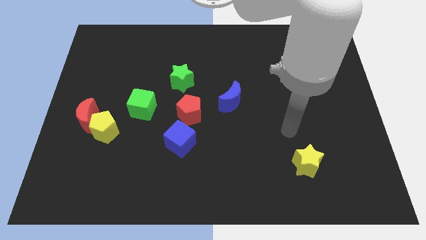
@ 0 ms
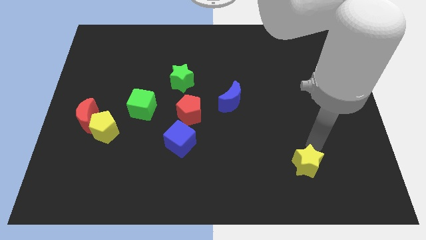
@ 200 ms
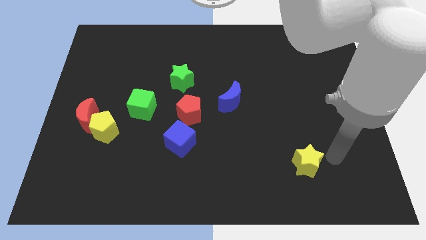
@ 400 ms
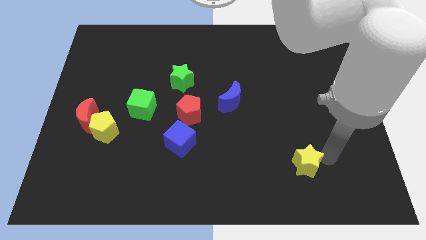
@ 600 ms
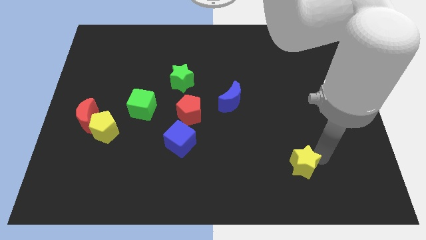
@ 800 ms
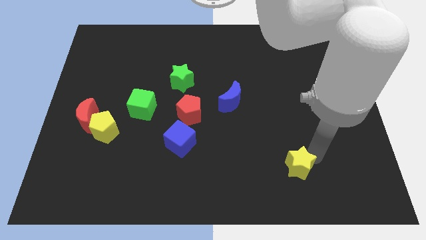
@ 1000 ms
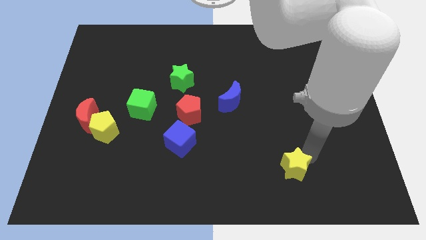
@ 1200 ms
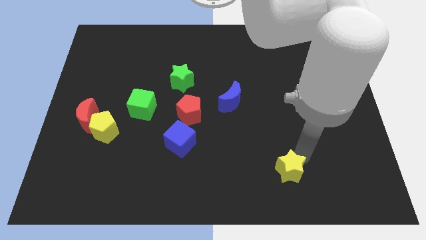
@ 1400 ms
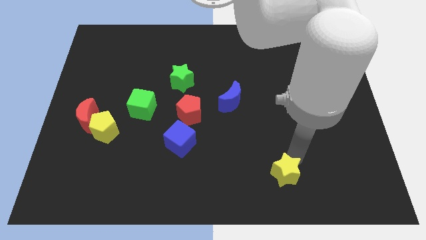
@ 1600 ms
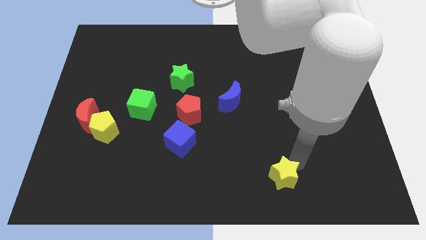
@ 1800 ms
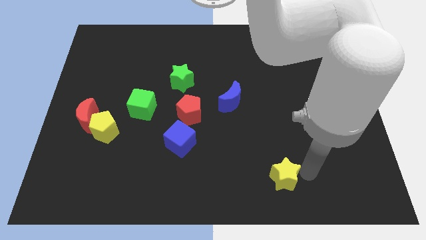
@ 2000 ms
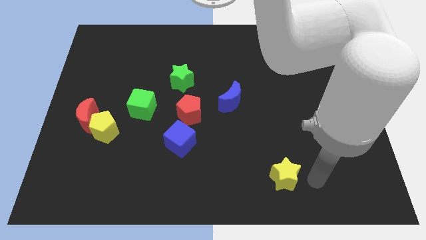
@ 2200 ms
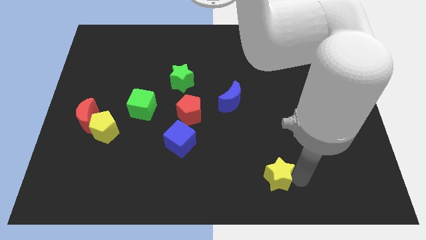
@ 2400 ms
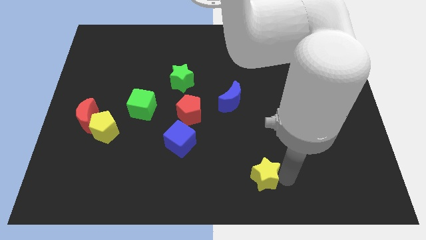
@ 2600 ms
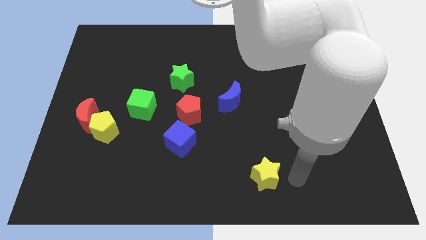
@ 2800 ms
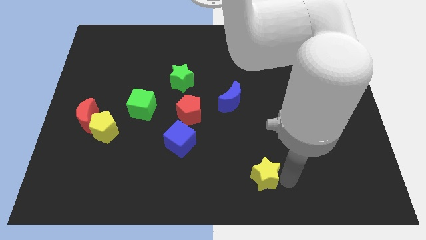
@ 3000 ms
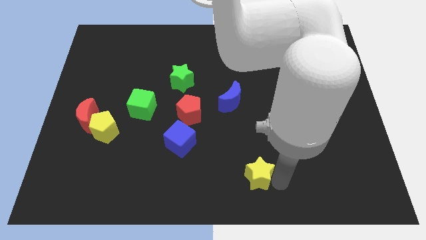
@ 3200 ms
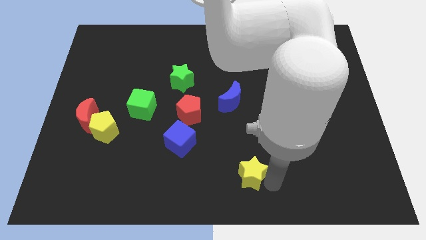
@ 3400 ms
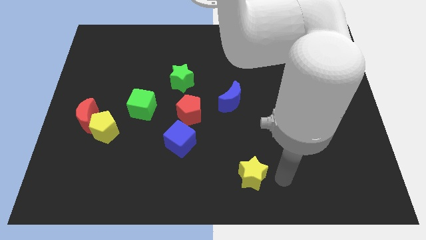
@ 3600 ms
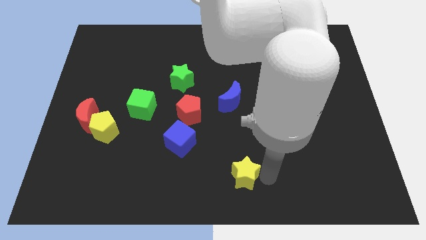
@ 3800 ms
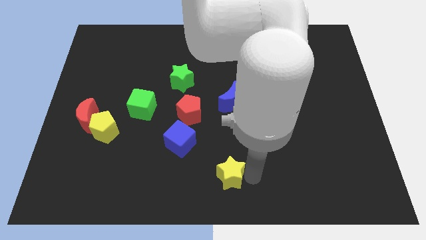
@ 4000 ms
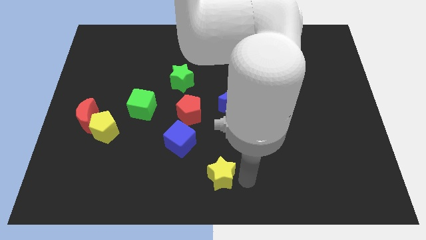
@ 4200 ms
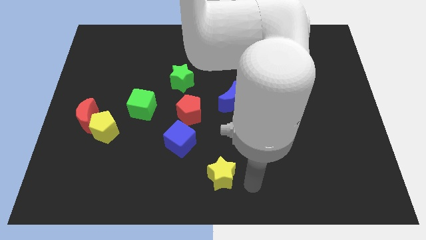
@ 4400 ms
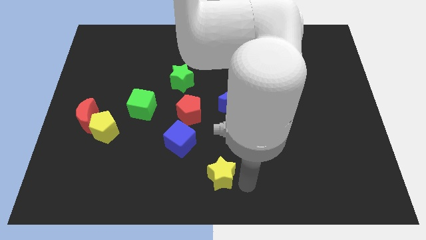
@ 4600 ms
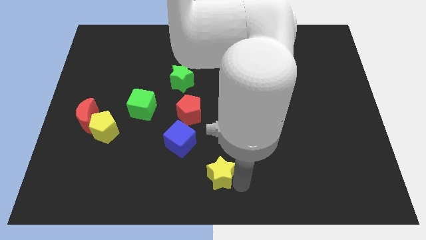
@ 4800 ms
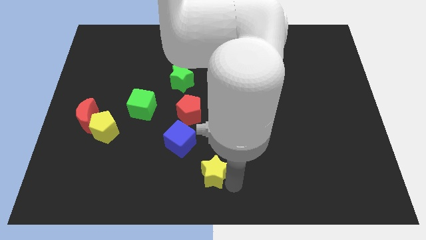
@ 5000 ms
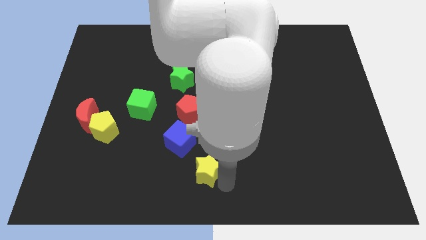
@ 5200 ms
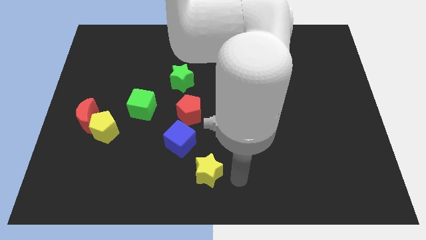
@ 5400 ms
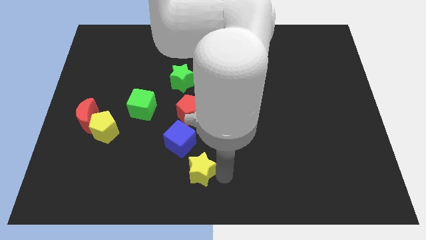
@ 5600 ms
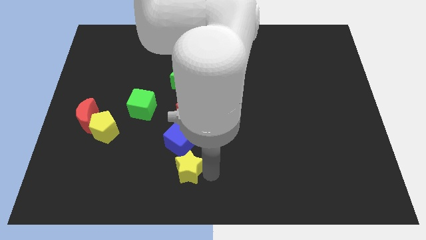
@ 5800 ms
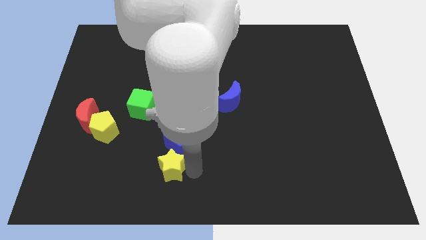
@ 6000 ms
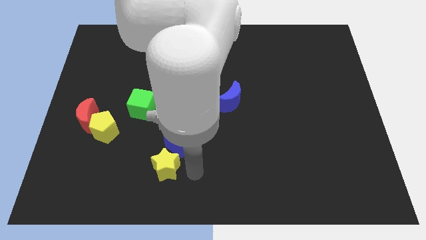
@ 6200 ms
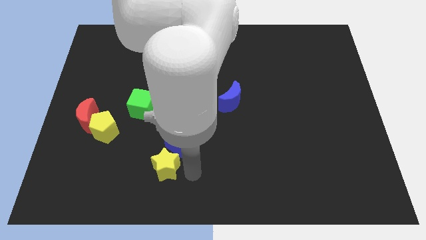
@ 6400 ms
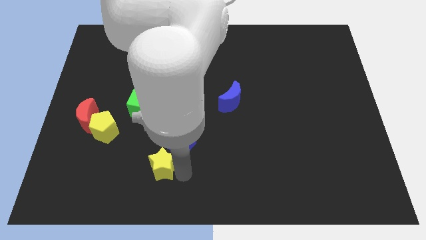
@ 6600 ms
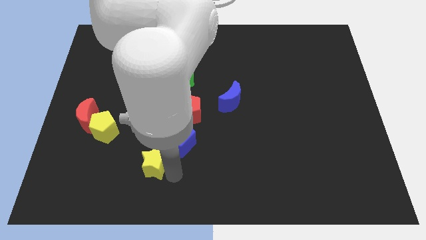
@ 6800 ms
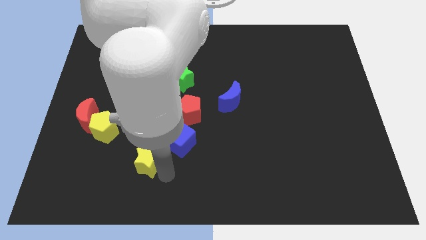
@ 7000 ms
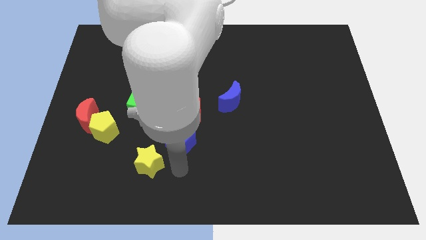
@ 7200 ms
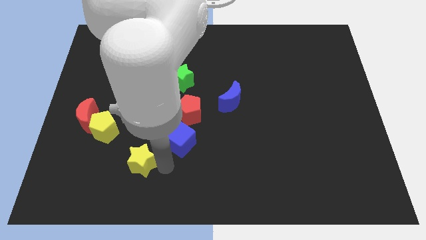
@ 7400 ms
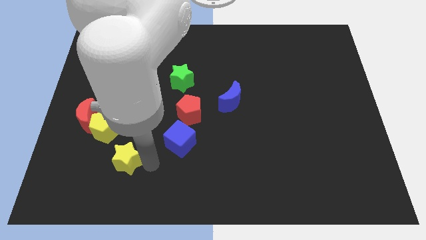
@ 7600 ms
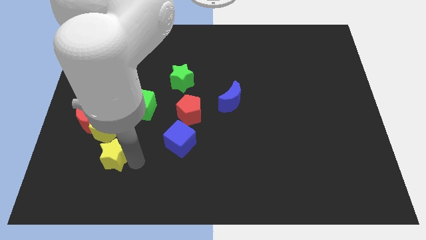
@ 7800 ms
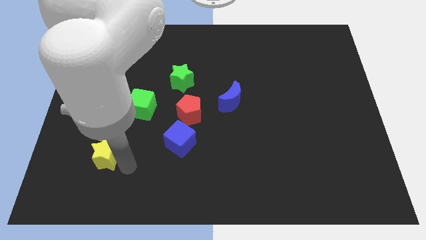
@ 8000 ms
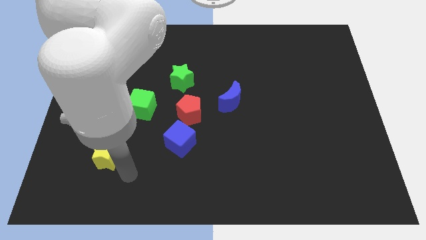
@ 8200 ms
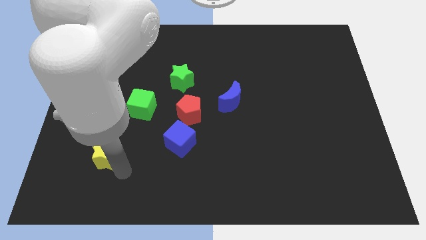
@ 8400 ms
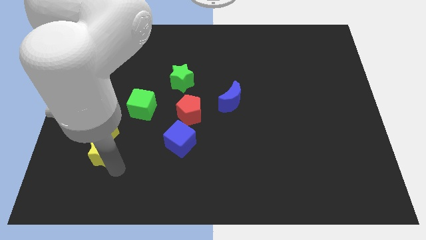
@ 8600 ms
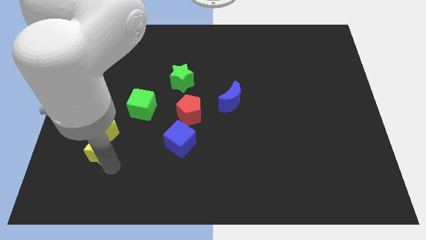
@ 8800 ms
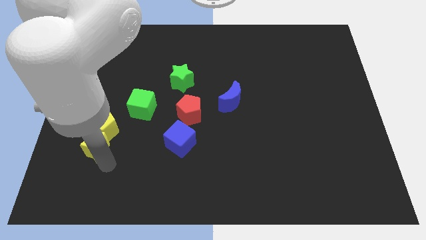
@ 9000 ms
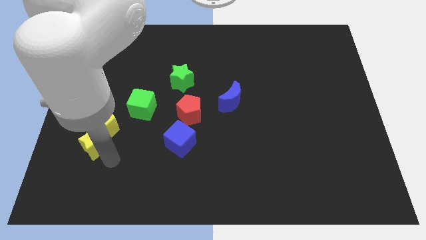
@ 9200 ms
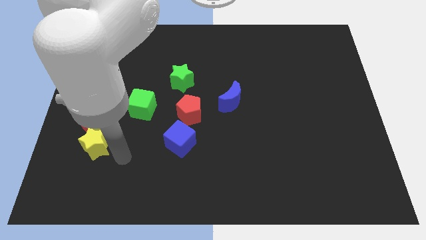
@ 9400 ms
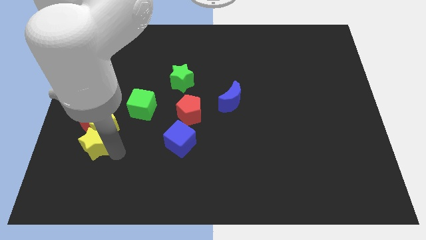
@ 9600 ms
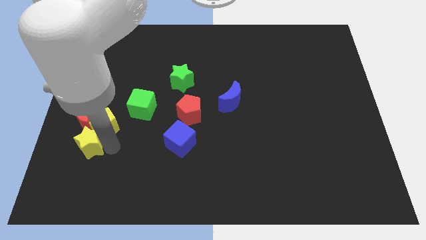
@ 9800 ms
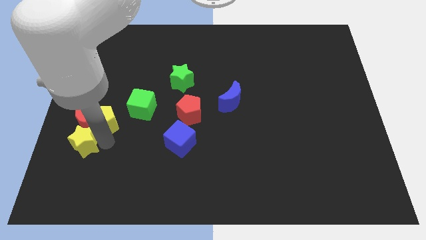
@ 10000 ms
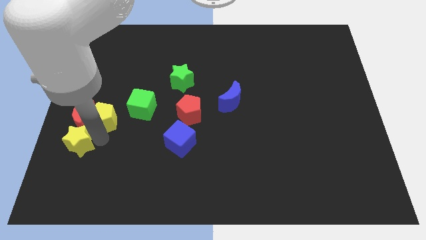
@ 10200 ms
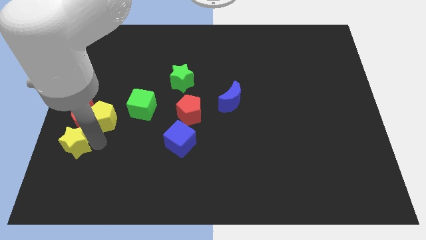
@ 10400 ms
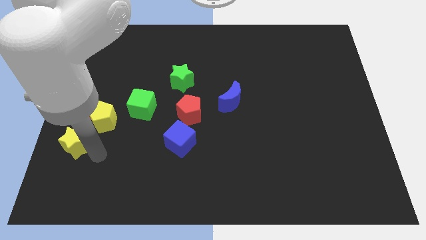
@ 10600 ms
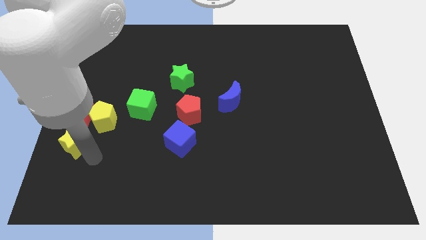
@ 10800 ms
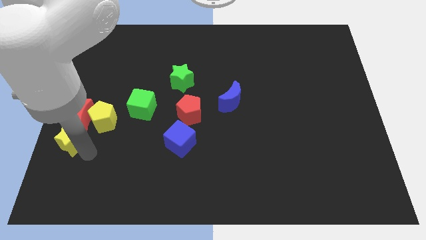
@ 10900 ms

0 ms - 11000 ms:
put the yellow star to the left side of the board

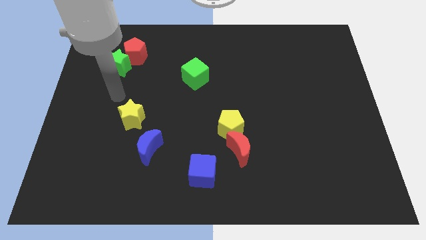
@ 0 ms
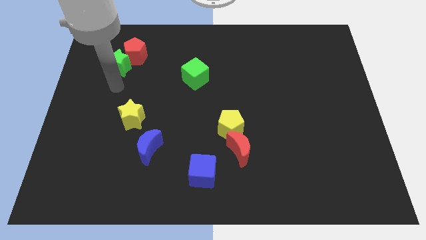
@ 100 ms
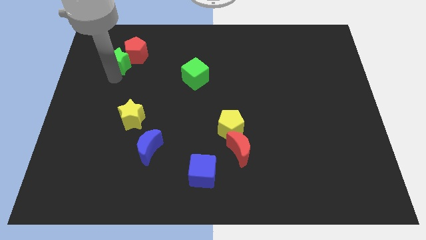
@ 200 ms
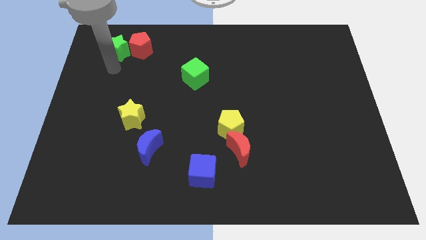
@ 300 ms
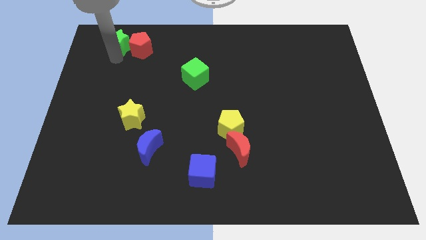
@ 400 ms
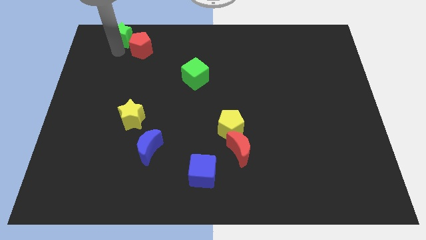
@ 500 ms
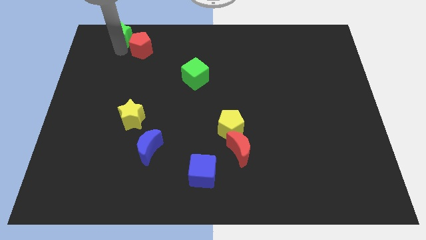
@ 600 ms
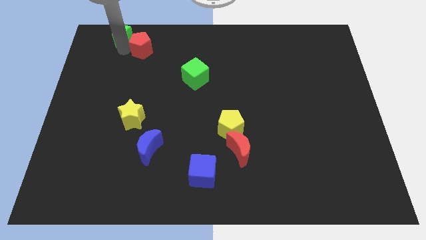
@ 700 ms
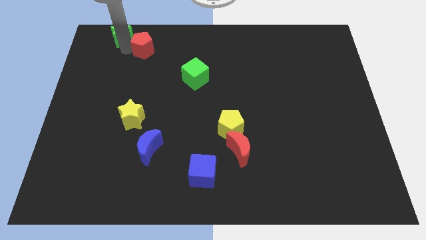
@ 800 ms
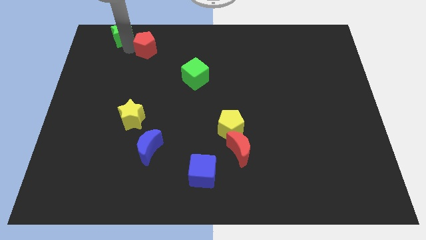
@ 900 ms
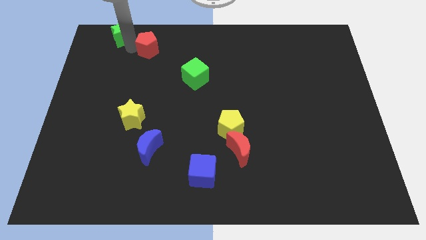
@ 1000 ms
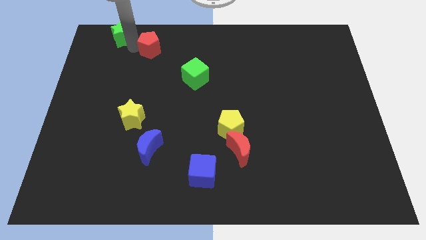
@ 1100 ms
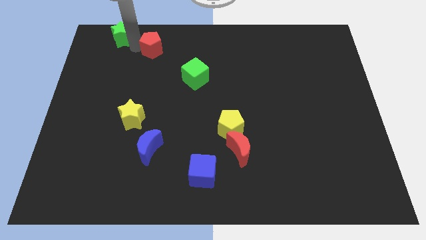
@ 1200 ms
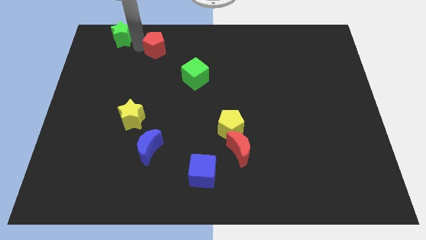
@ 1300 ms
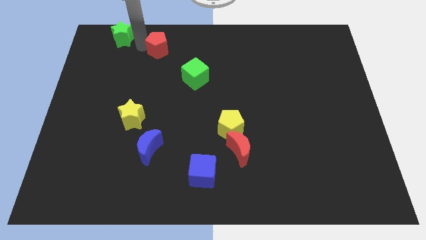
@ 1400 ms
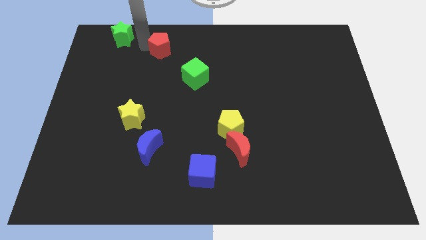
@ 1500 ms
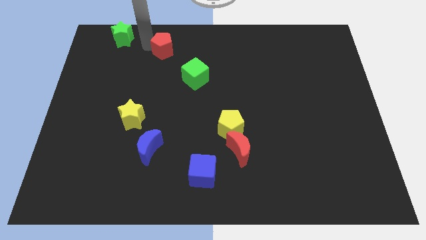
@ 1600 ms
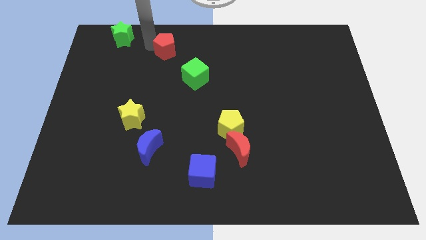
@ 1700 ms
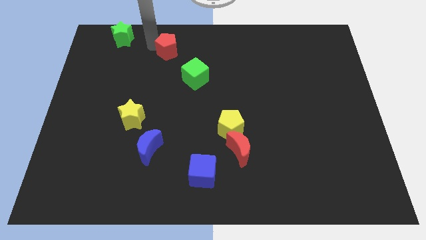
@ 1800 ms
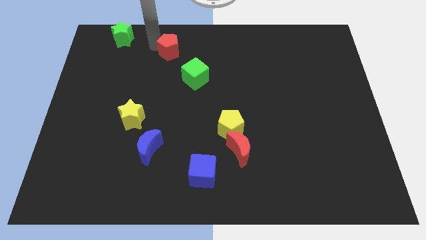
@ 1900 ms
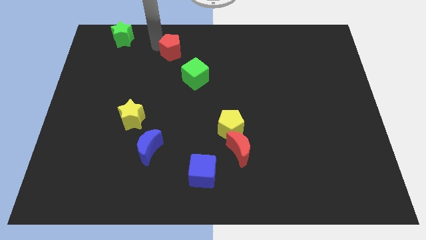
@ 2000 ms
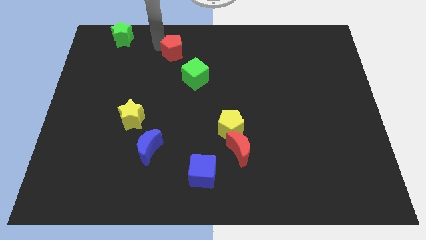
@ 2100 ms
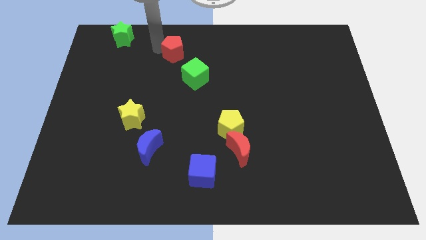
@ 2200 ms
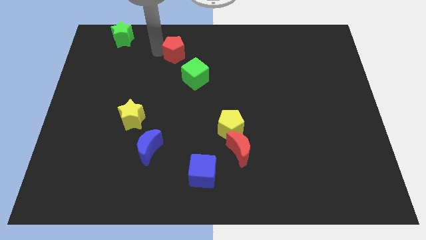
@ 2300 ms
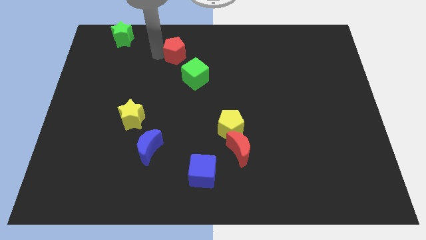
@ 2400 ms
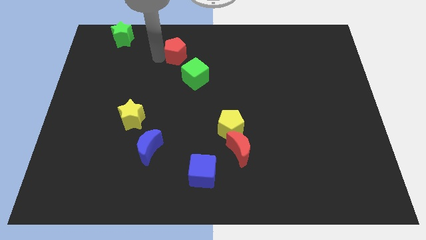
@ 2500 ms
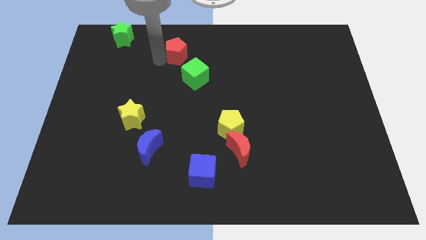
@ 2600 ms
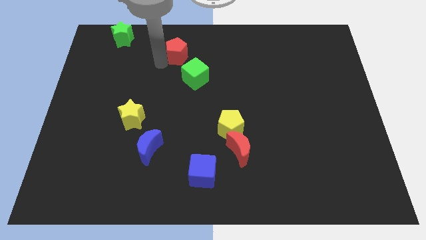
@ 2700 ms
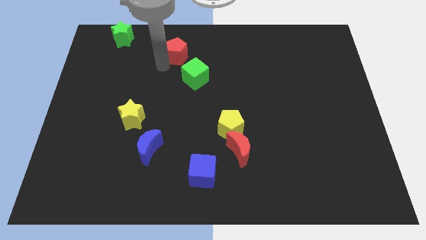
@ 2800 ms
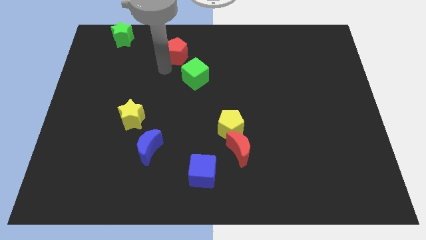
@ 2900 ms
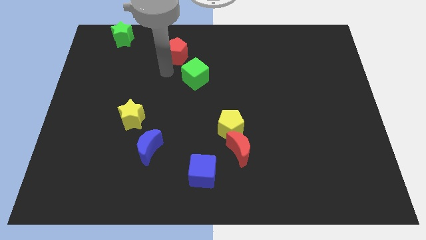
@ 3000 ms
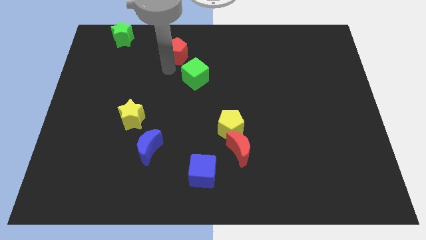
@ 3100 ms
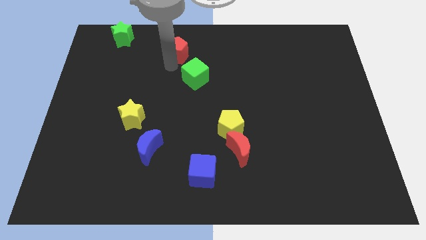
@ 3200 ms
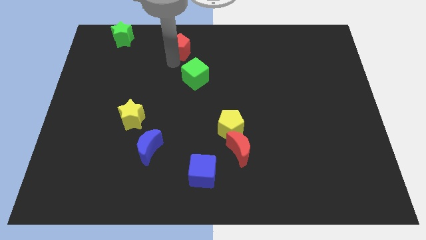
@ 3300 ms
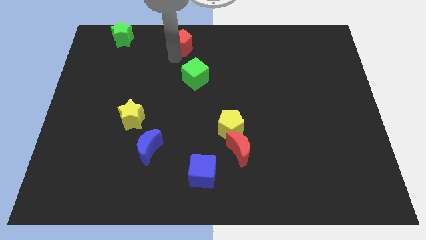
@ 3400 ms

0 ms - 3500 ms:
put the red pentagon to the top side
